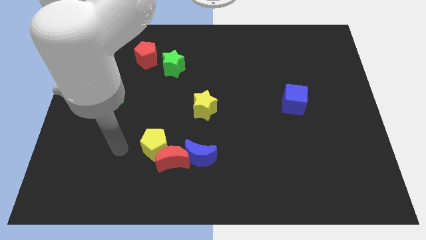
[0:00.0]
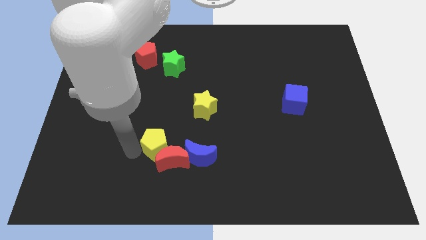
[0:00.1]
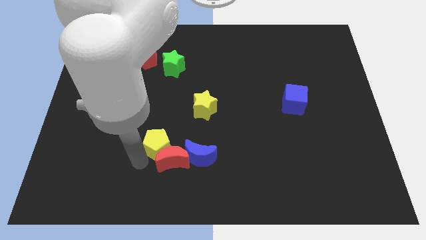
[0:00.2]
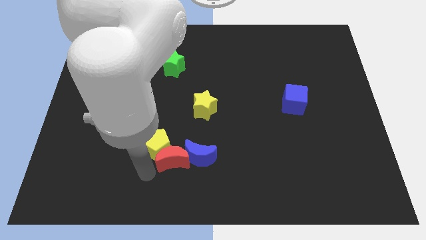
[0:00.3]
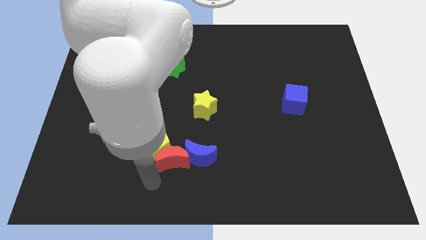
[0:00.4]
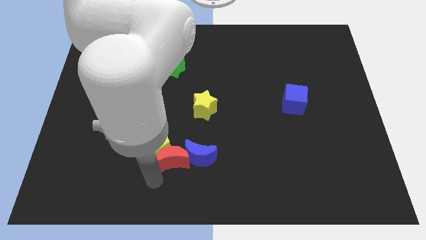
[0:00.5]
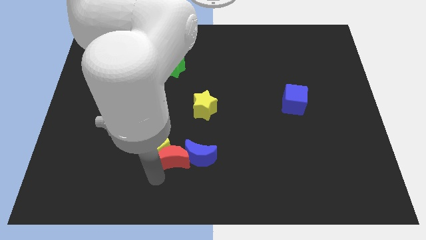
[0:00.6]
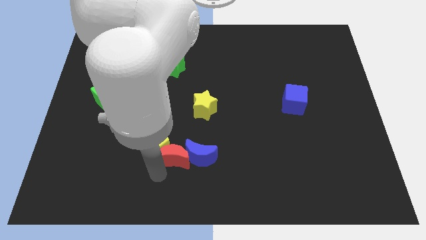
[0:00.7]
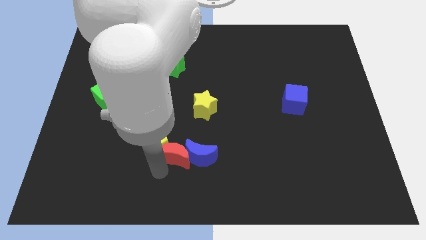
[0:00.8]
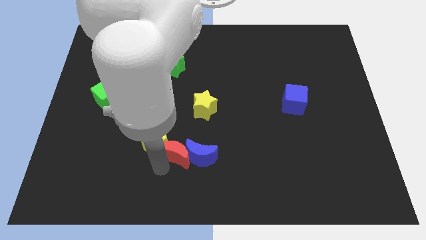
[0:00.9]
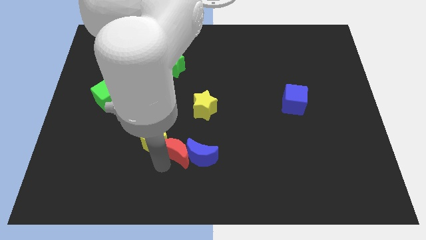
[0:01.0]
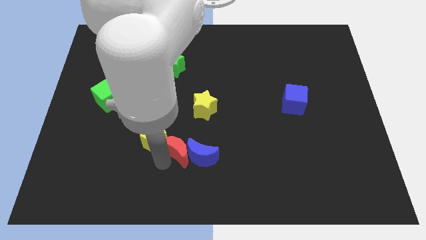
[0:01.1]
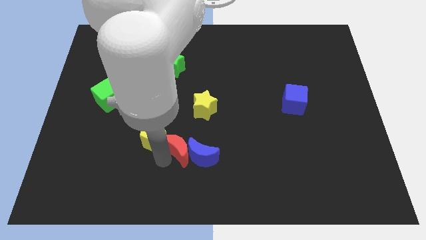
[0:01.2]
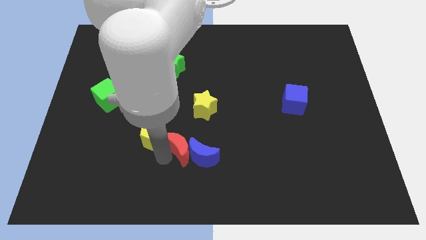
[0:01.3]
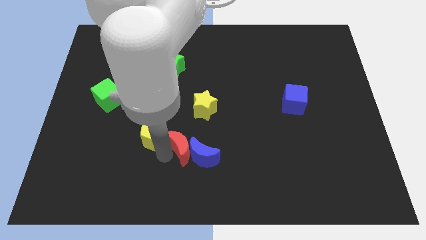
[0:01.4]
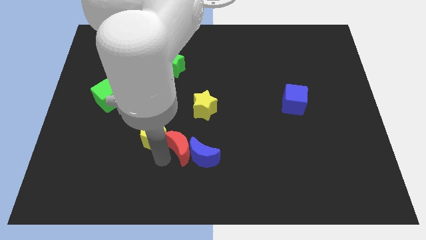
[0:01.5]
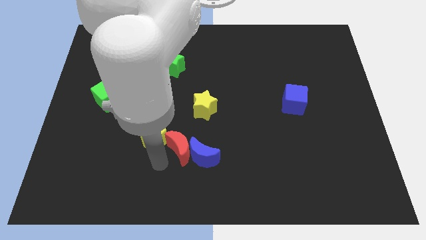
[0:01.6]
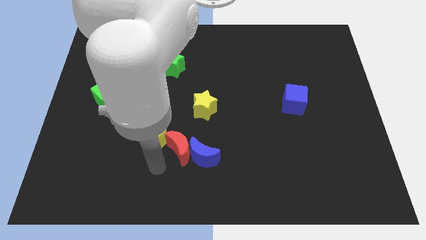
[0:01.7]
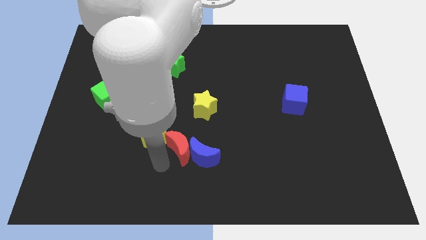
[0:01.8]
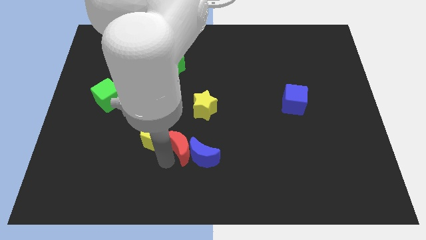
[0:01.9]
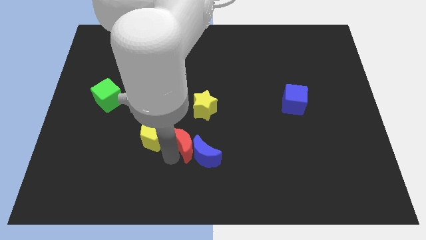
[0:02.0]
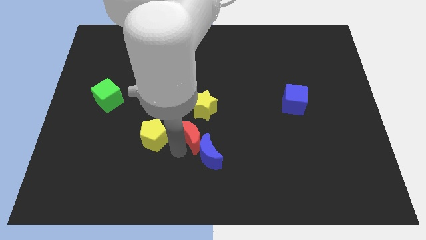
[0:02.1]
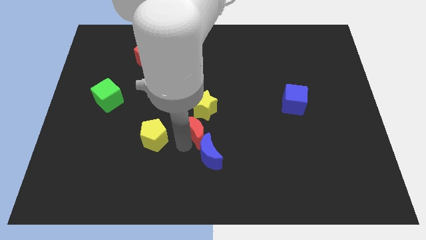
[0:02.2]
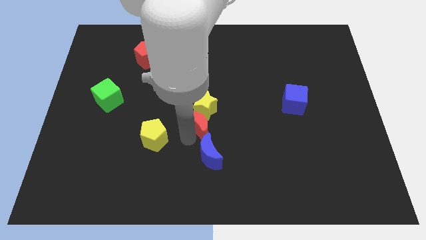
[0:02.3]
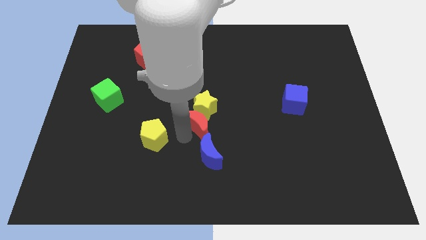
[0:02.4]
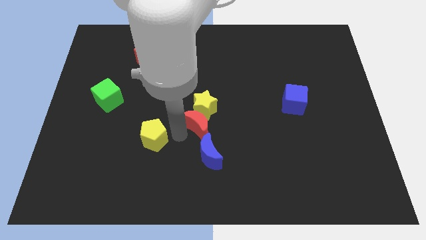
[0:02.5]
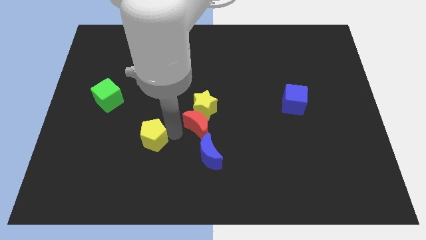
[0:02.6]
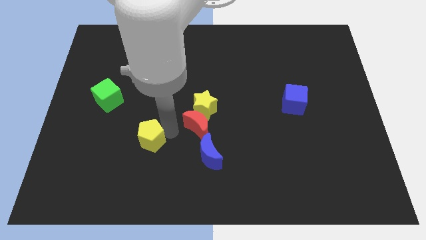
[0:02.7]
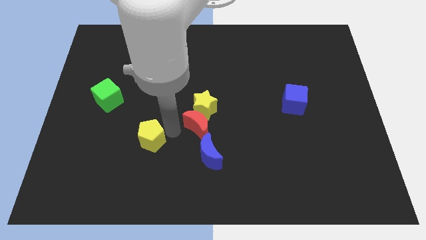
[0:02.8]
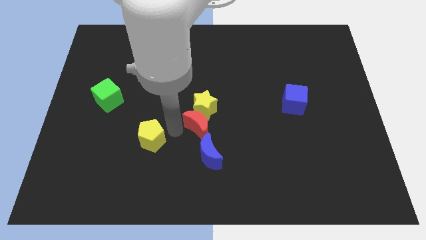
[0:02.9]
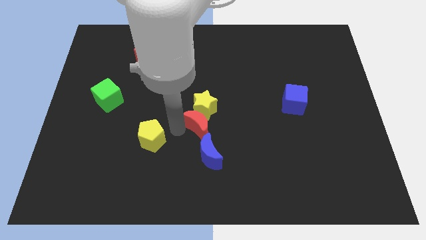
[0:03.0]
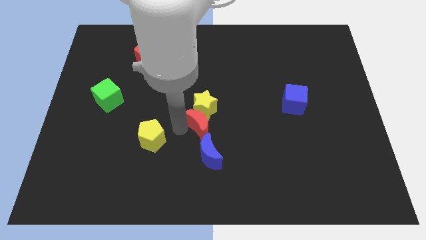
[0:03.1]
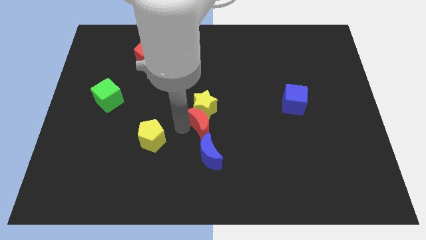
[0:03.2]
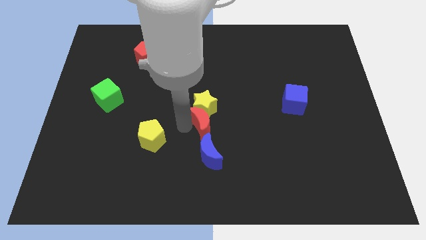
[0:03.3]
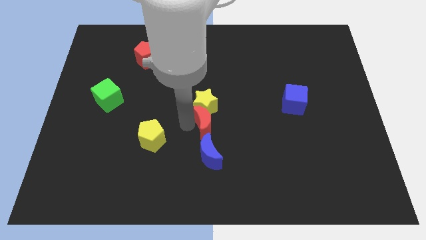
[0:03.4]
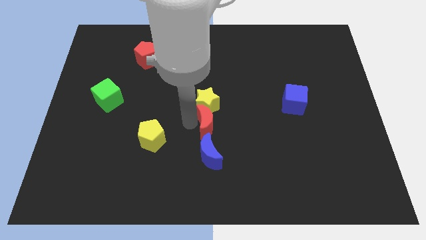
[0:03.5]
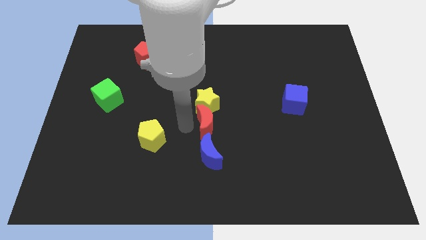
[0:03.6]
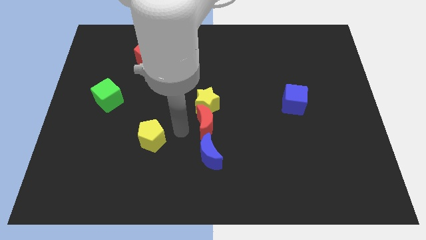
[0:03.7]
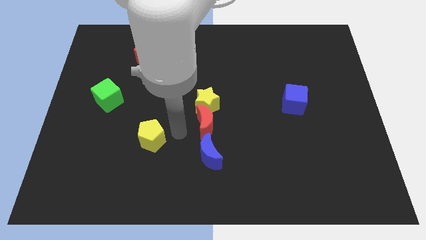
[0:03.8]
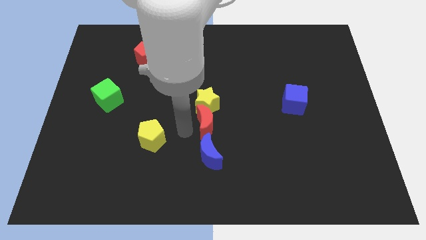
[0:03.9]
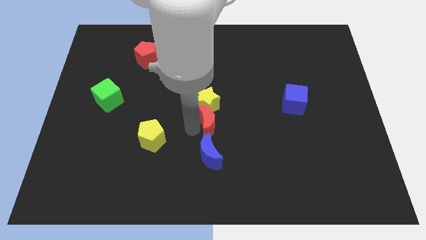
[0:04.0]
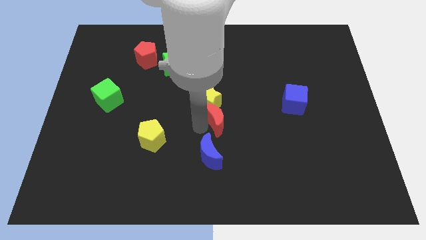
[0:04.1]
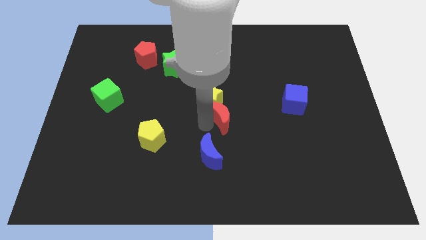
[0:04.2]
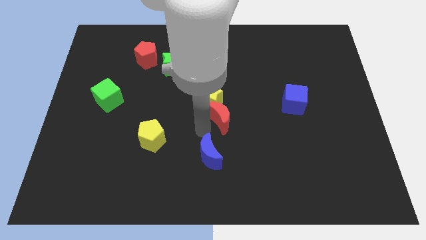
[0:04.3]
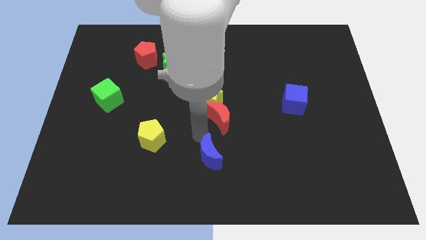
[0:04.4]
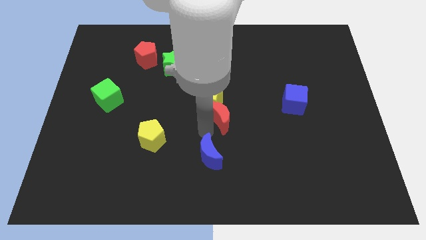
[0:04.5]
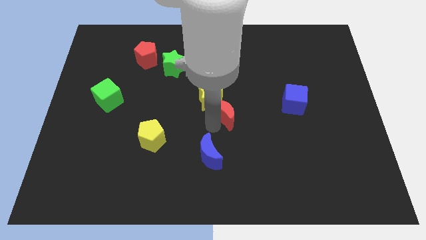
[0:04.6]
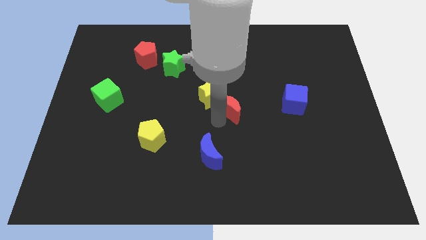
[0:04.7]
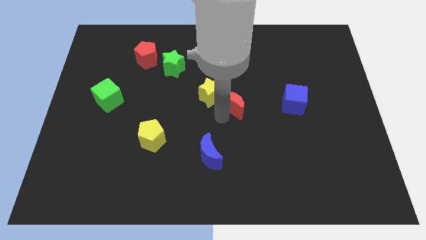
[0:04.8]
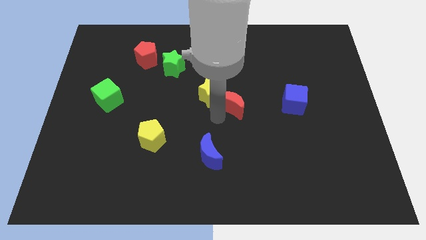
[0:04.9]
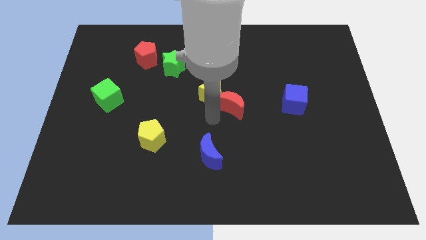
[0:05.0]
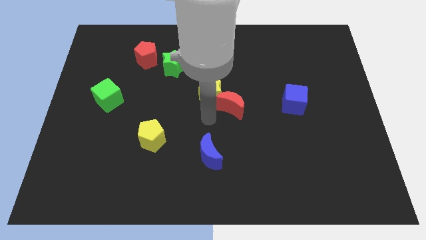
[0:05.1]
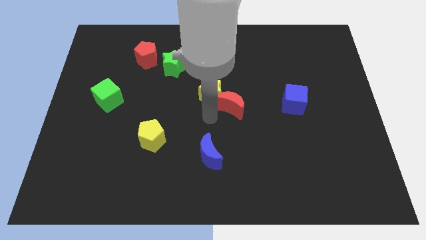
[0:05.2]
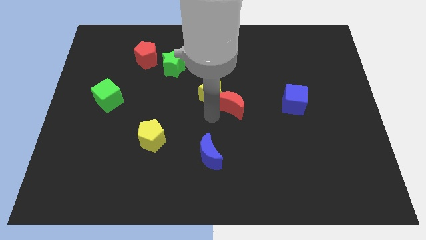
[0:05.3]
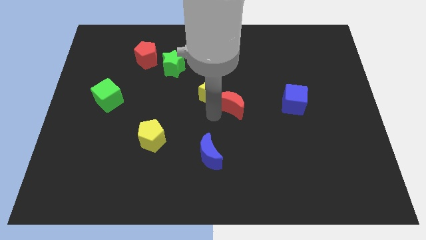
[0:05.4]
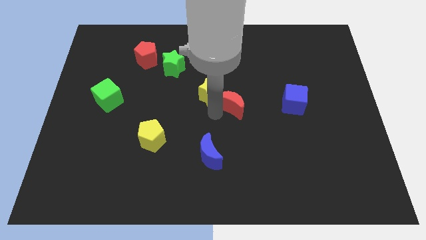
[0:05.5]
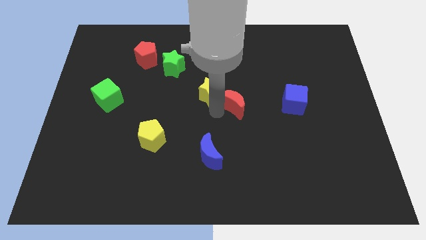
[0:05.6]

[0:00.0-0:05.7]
move the red moon diagonally upwards and right

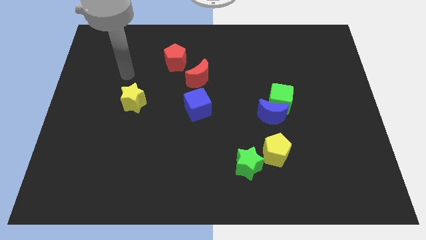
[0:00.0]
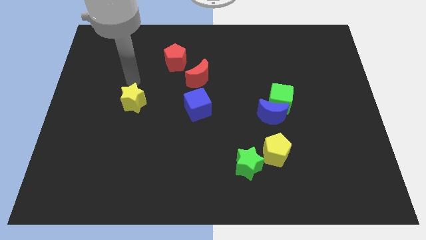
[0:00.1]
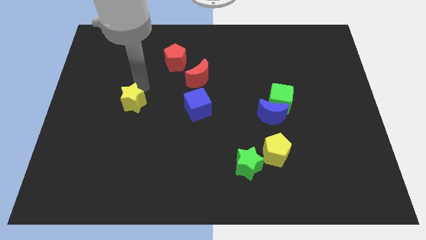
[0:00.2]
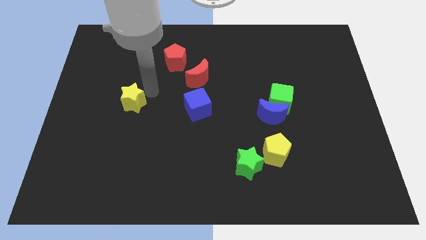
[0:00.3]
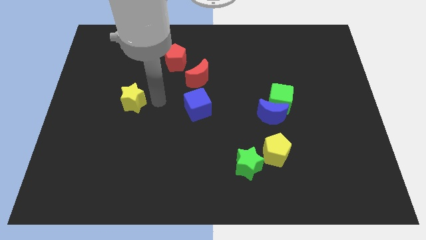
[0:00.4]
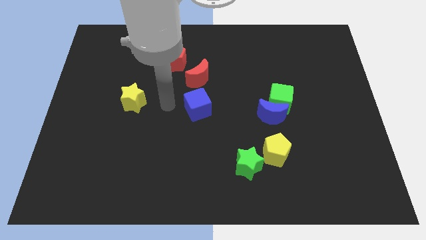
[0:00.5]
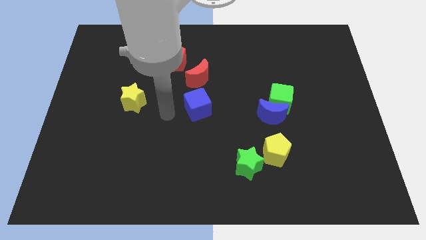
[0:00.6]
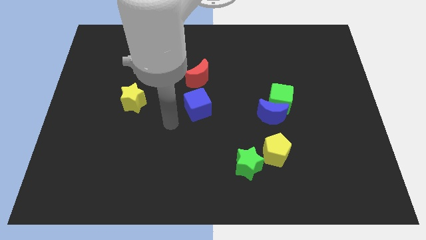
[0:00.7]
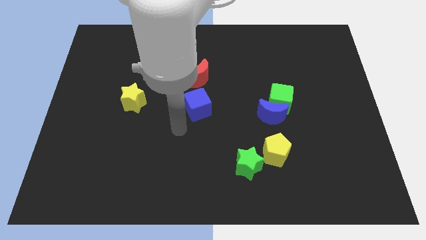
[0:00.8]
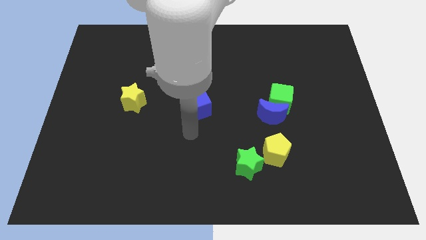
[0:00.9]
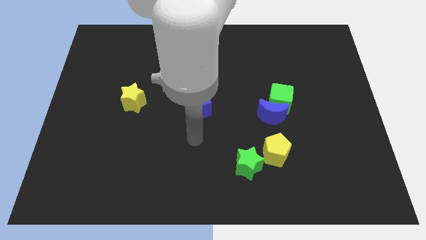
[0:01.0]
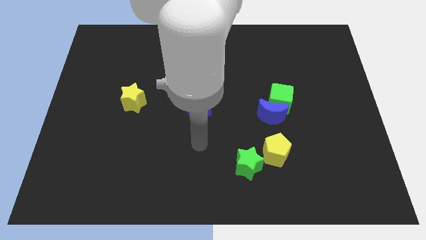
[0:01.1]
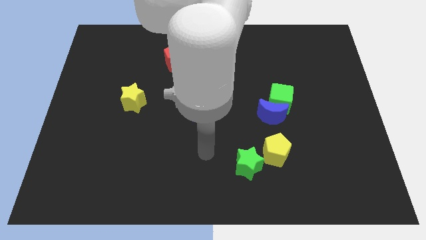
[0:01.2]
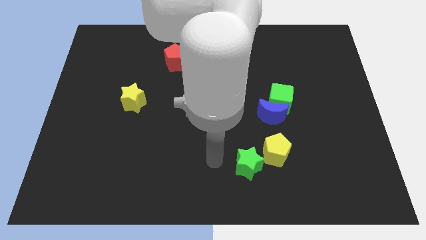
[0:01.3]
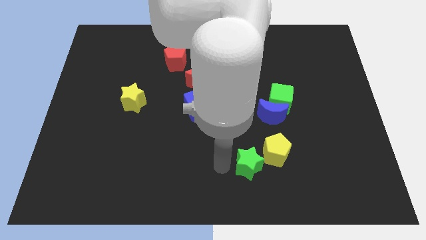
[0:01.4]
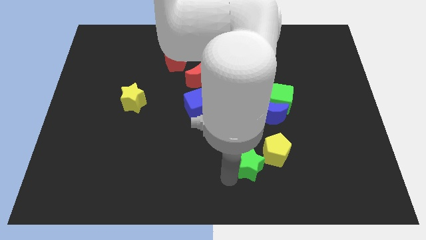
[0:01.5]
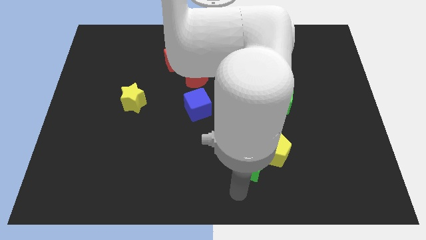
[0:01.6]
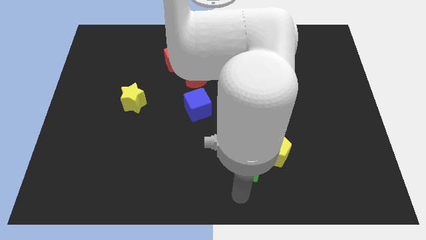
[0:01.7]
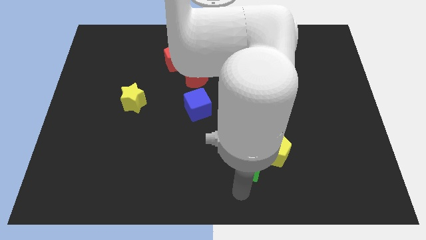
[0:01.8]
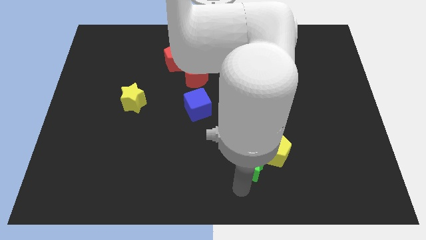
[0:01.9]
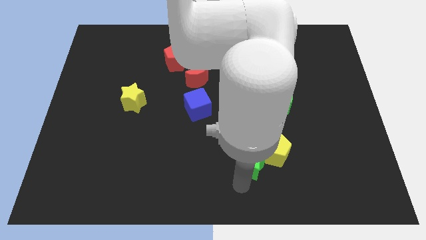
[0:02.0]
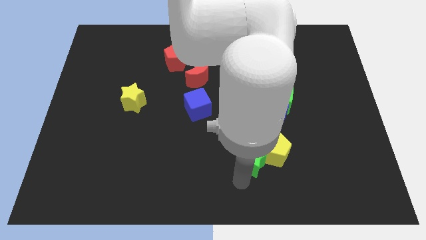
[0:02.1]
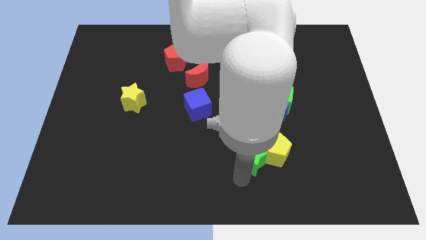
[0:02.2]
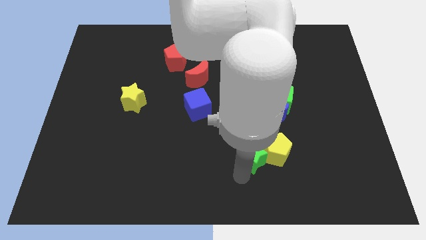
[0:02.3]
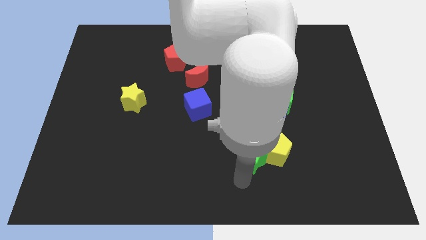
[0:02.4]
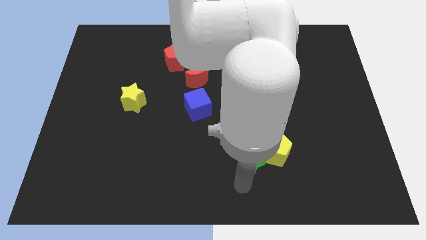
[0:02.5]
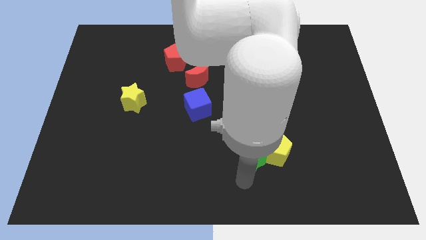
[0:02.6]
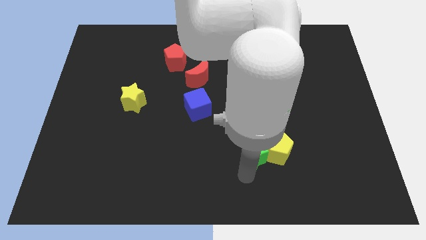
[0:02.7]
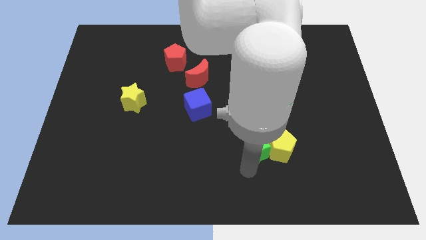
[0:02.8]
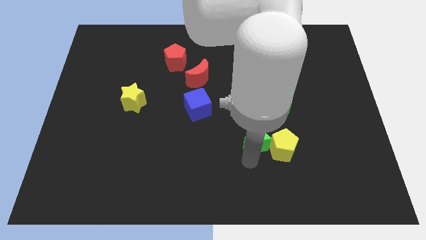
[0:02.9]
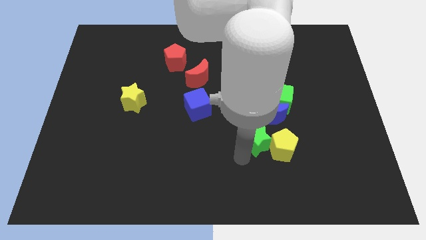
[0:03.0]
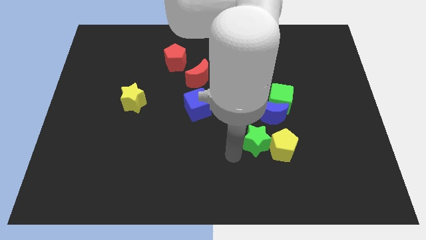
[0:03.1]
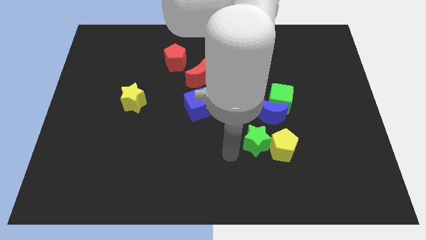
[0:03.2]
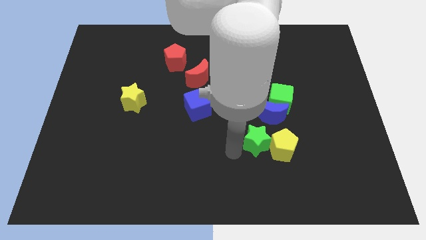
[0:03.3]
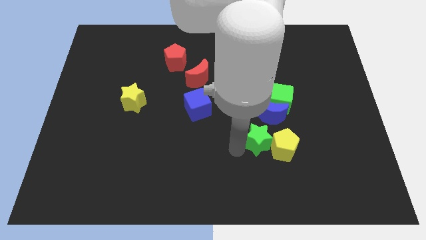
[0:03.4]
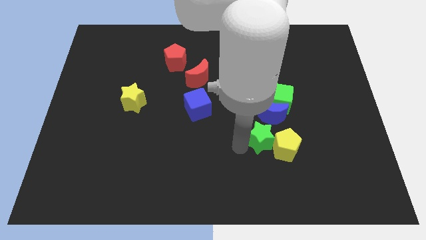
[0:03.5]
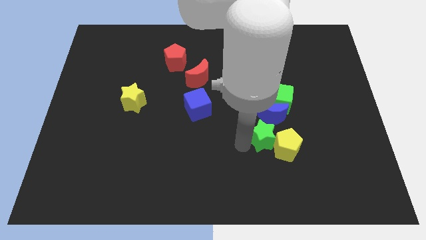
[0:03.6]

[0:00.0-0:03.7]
move the green star up and then to the right a little bit
